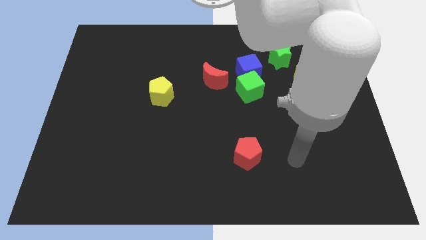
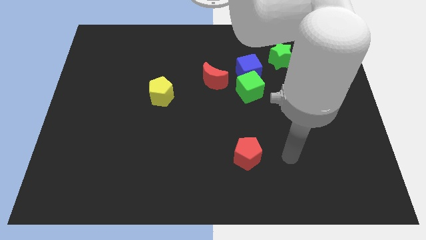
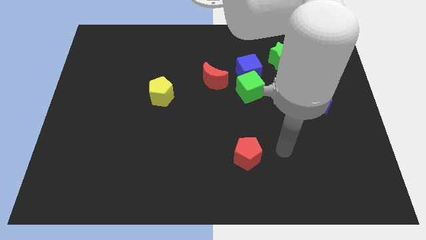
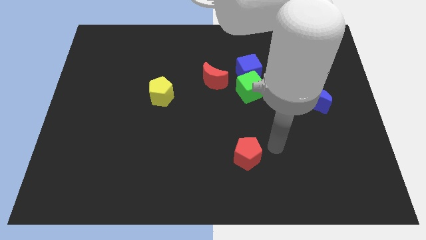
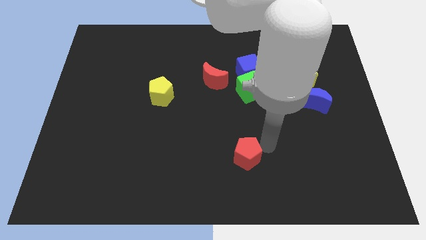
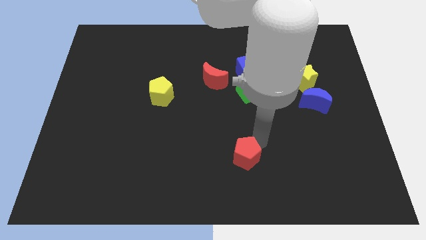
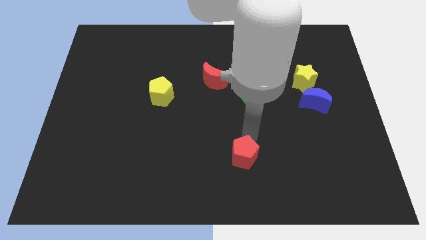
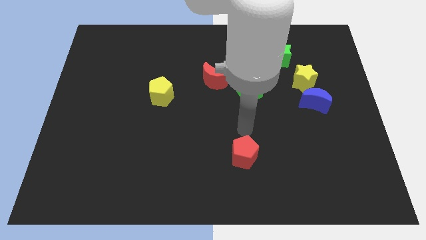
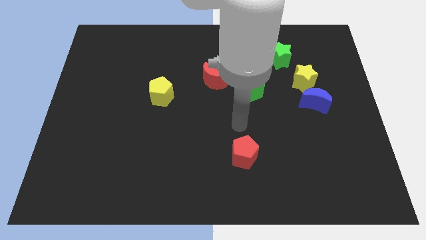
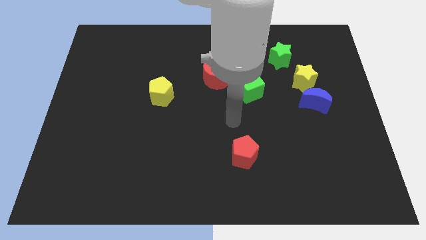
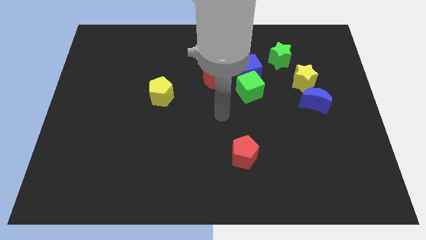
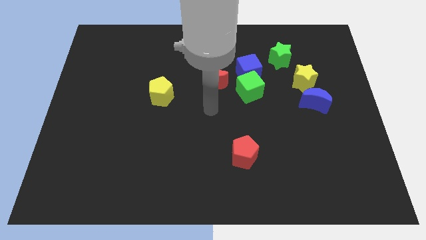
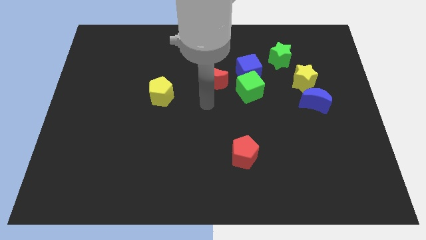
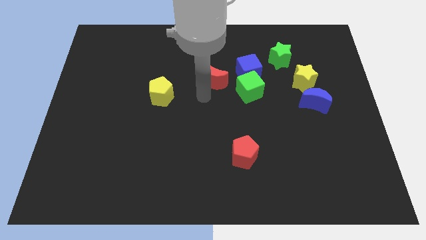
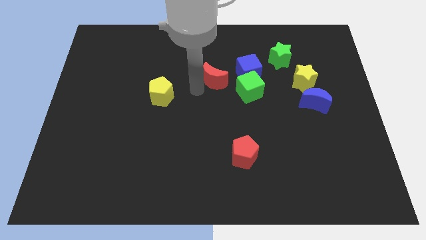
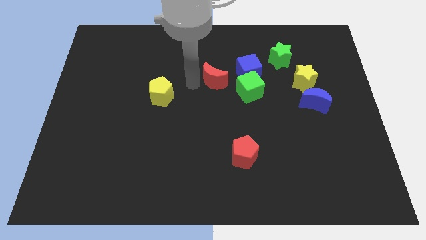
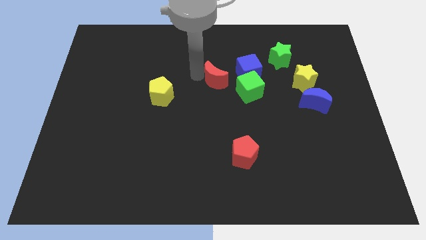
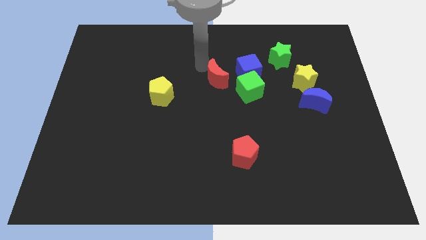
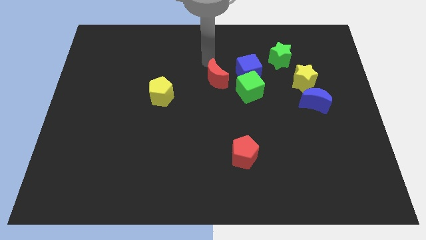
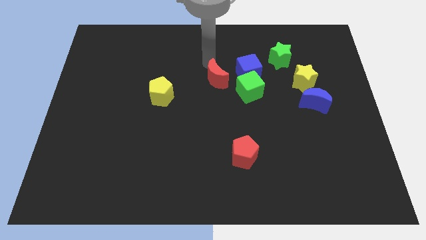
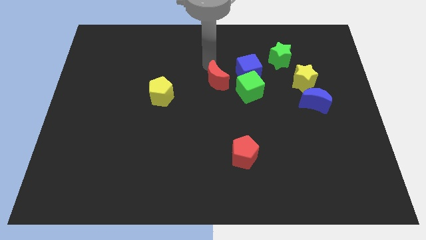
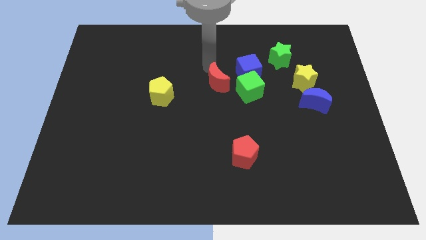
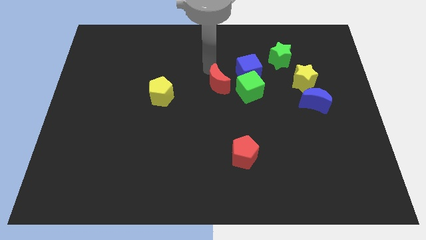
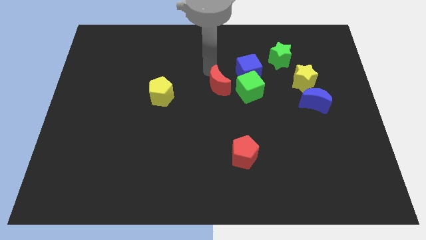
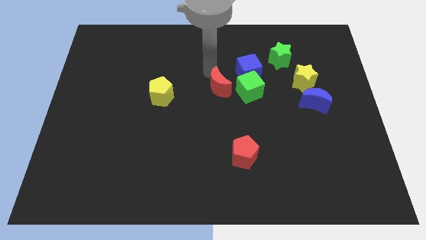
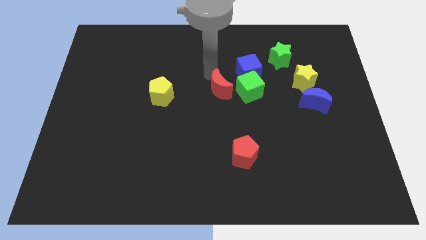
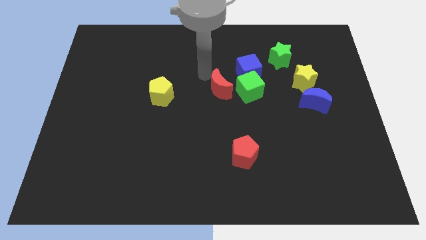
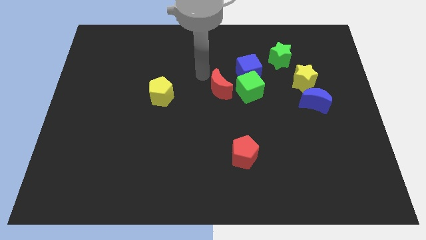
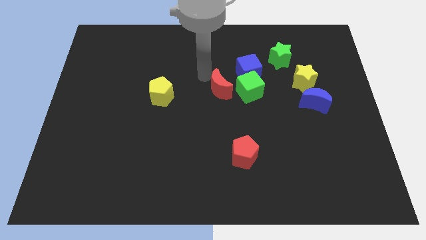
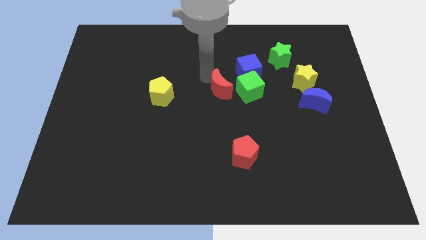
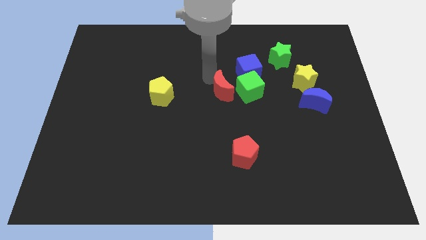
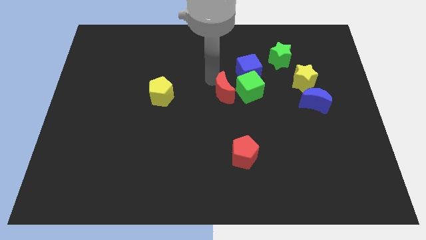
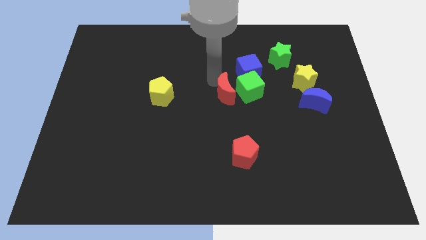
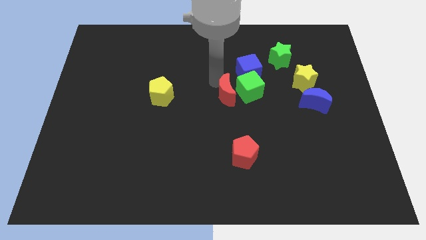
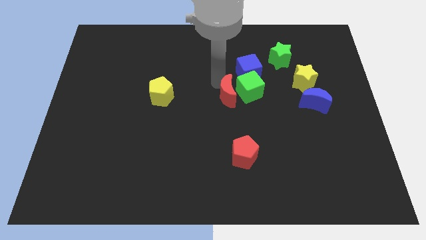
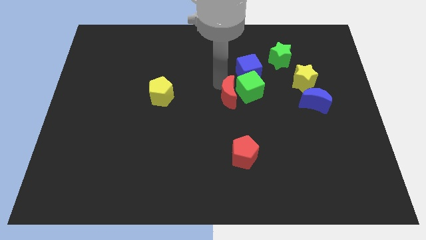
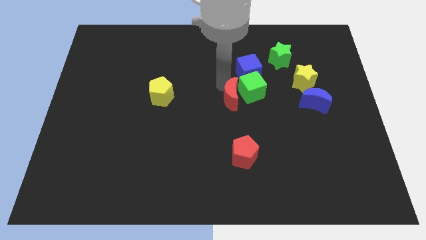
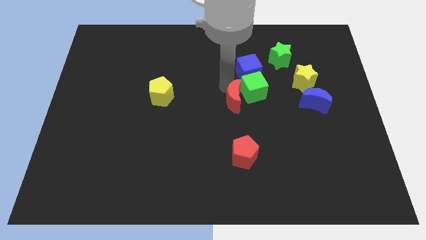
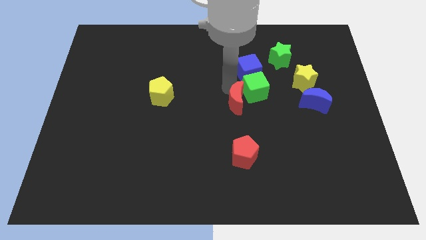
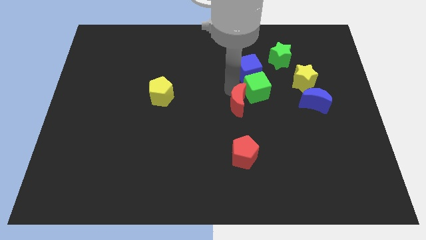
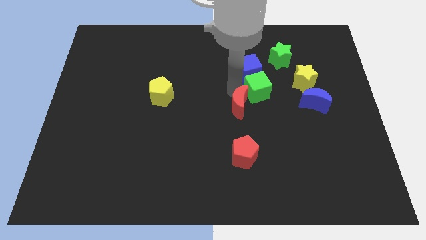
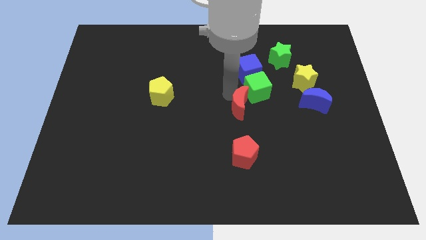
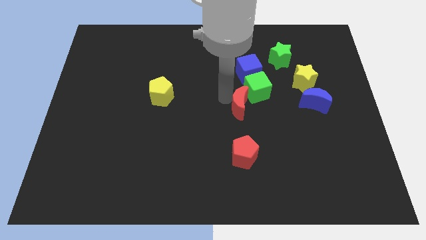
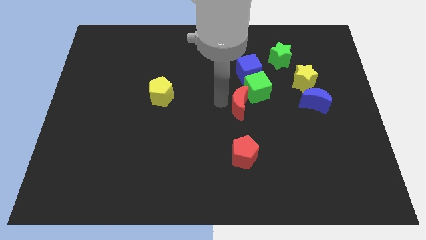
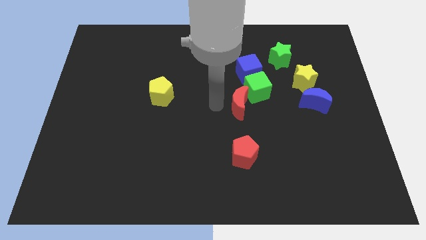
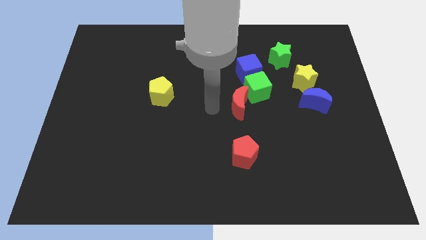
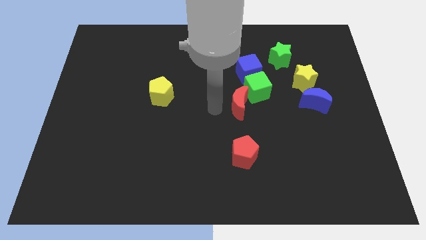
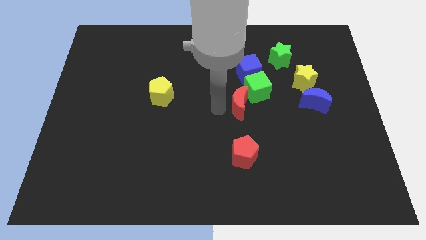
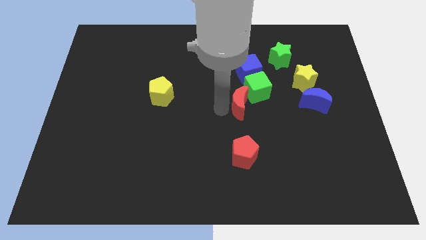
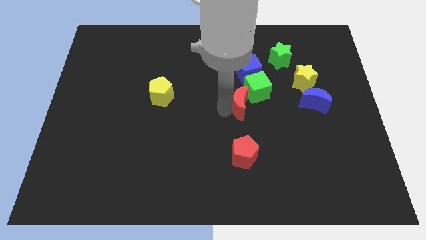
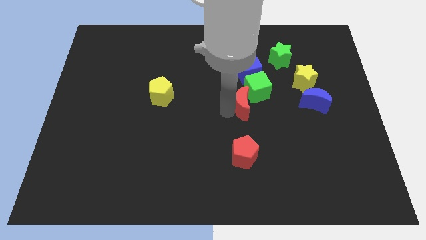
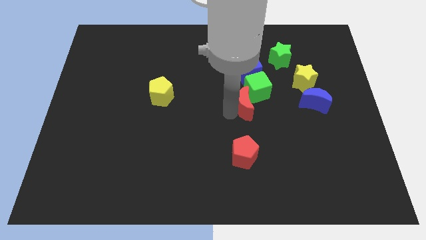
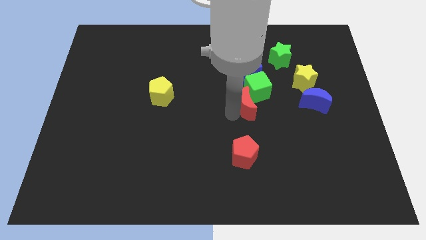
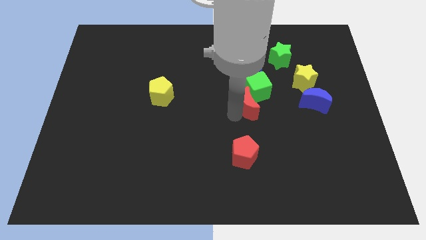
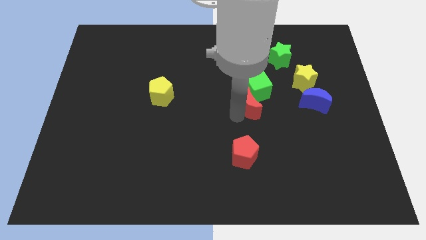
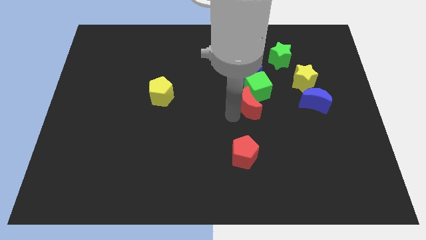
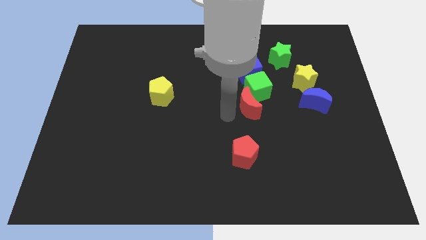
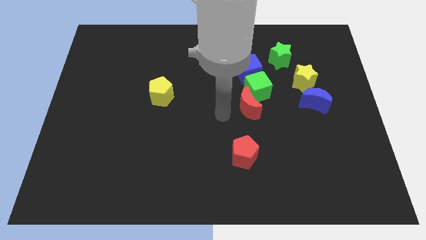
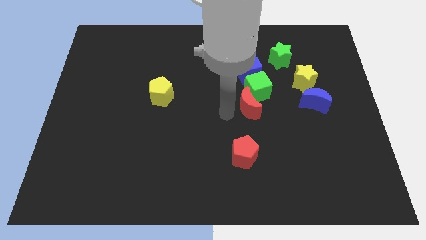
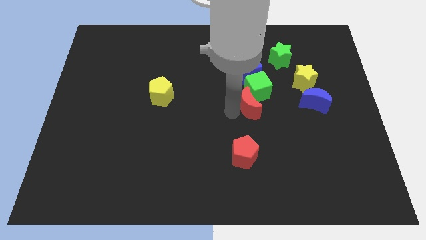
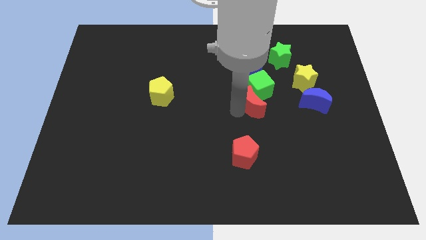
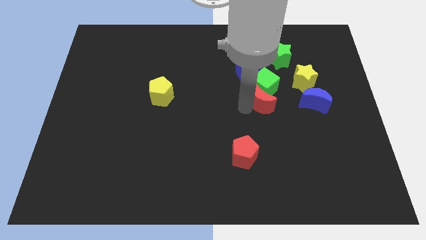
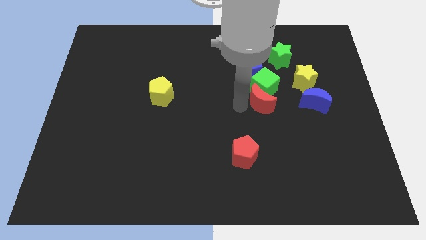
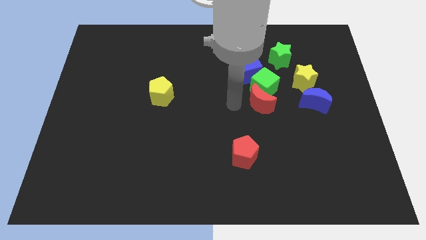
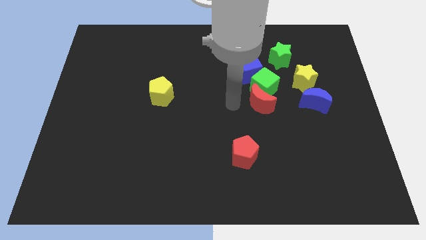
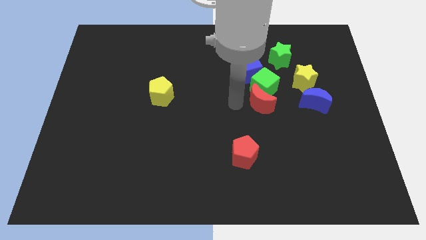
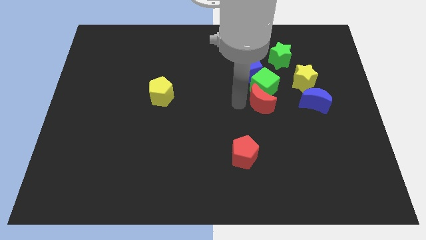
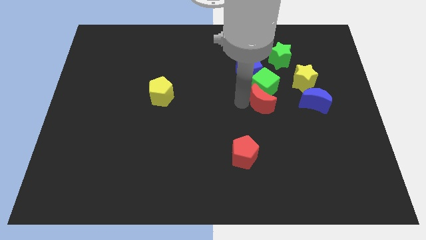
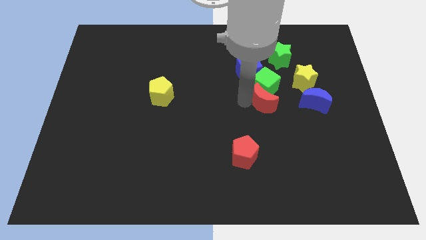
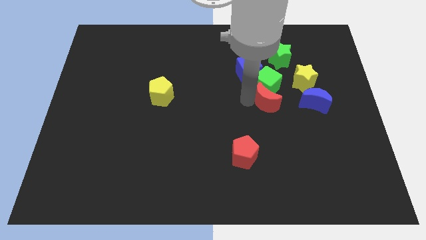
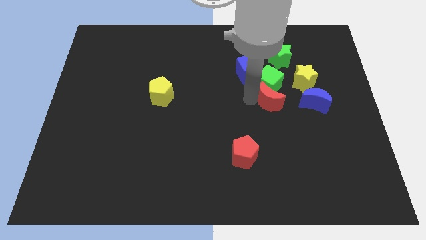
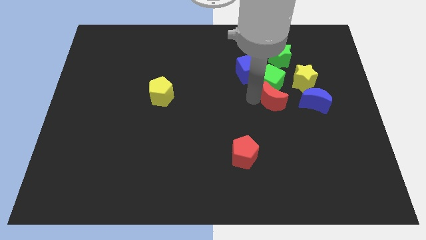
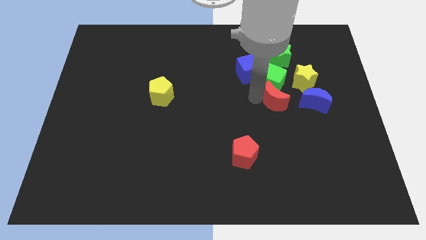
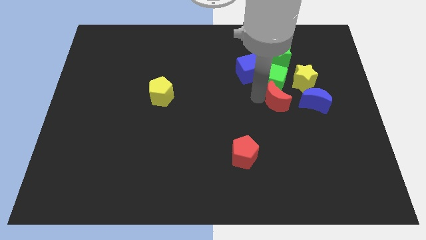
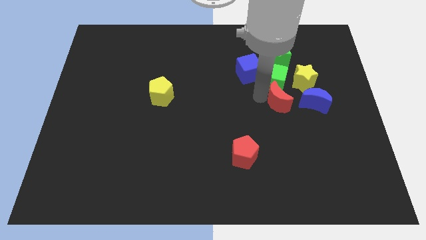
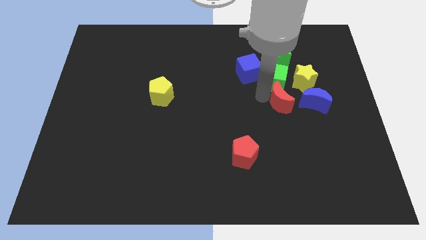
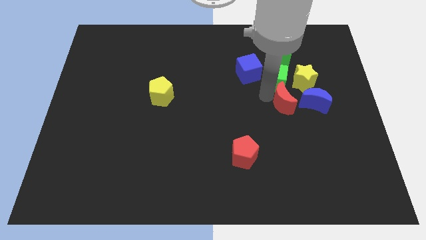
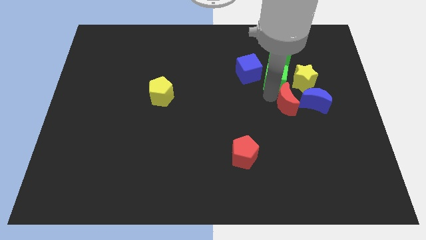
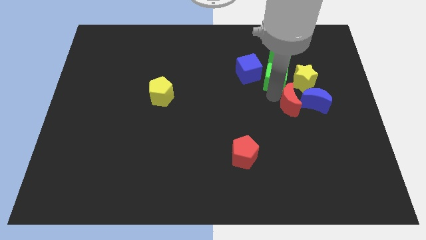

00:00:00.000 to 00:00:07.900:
move the red moon to the blue moon
